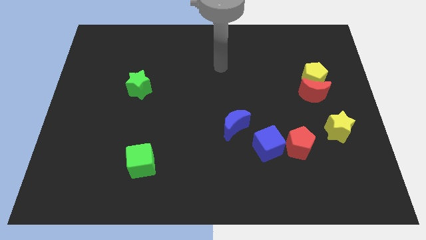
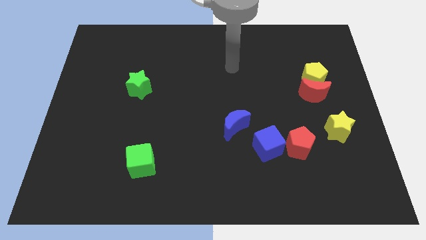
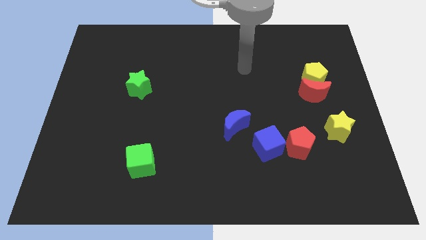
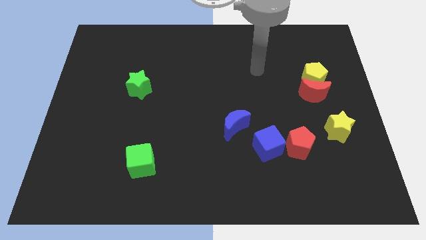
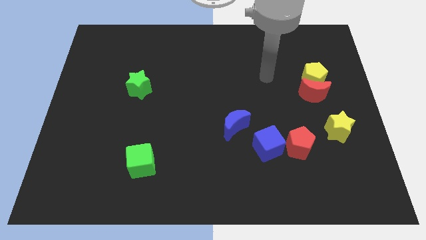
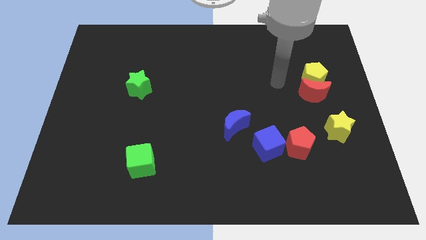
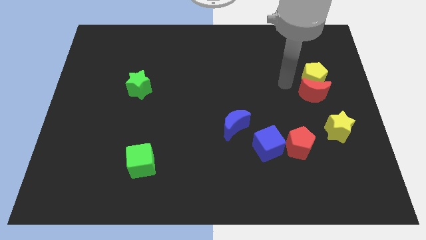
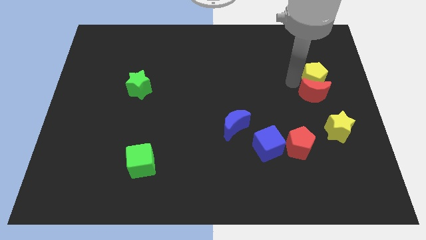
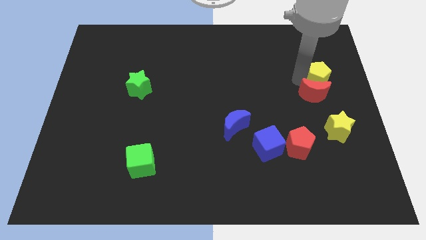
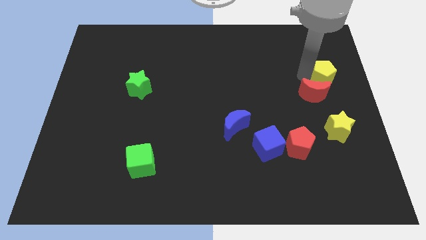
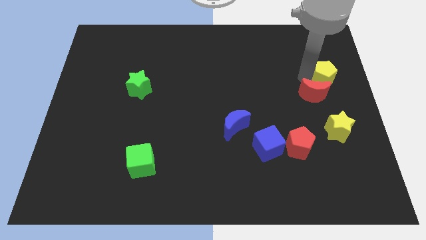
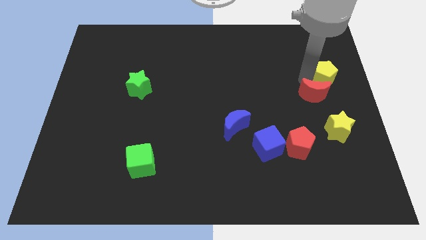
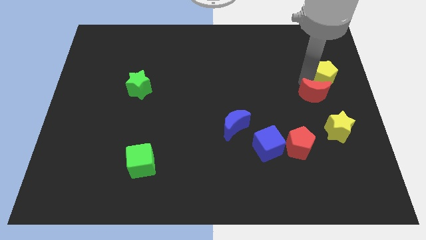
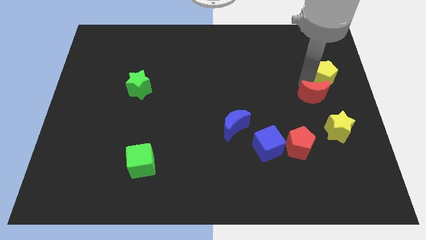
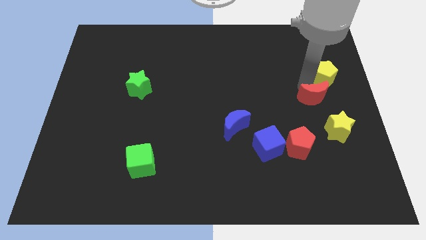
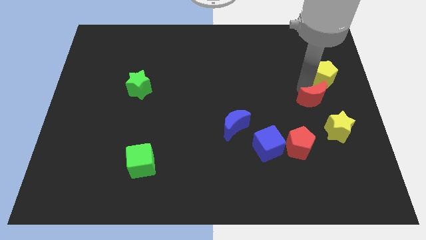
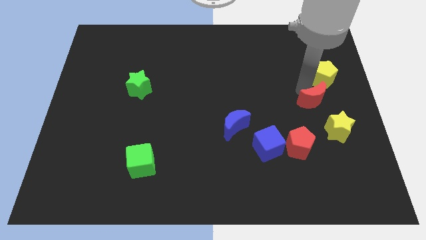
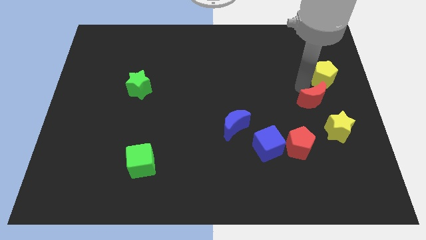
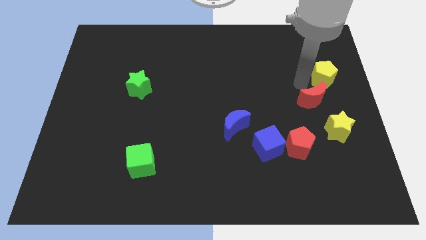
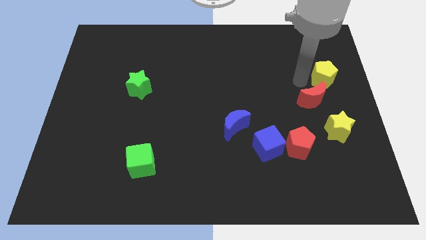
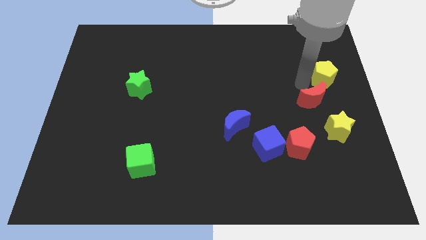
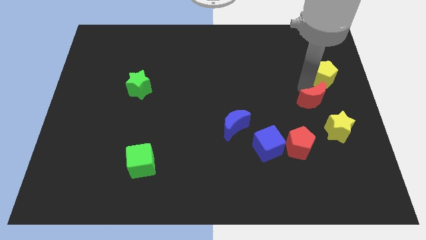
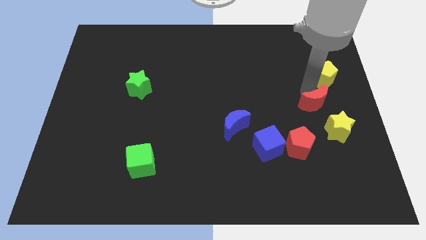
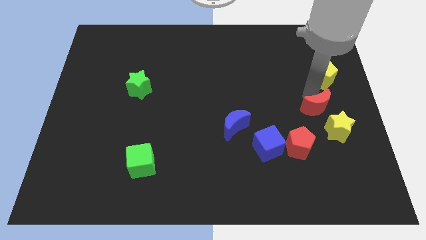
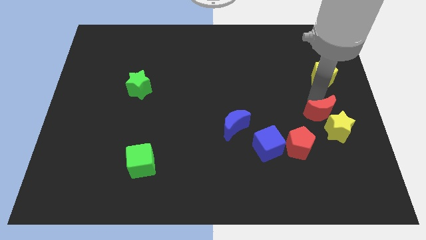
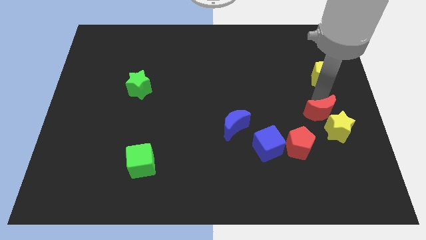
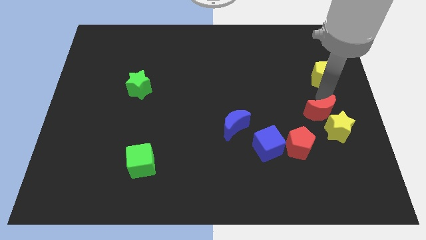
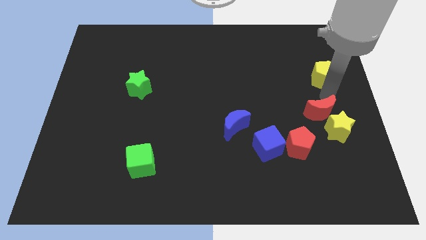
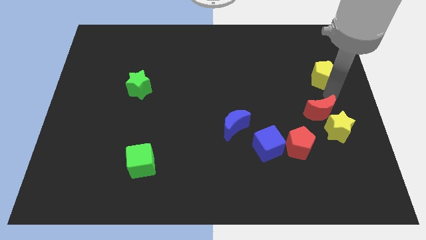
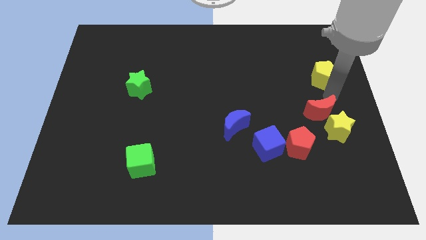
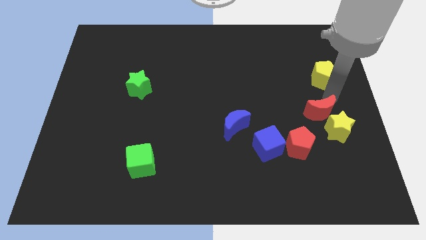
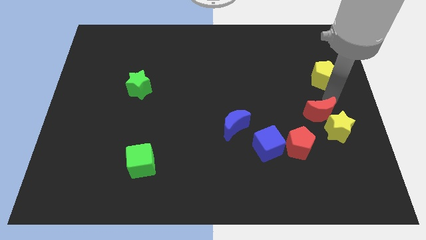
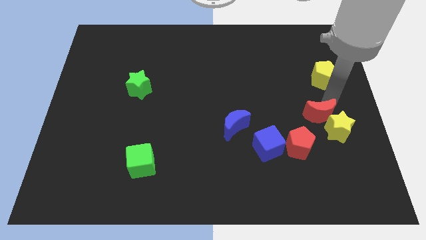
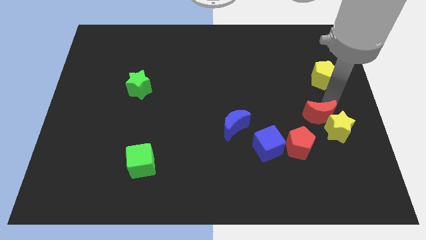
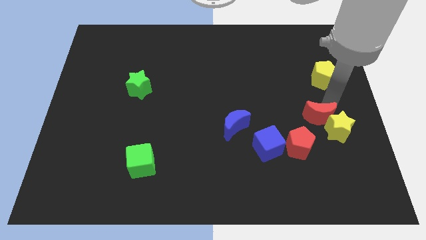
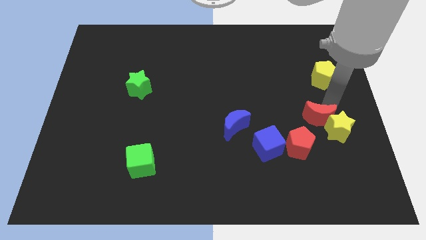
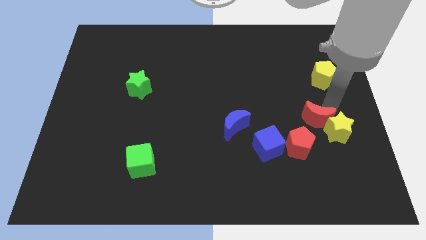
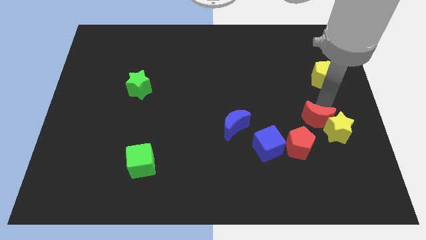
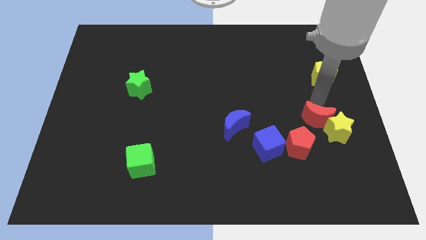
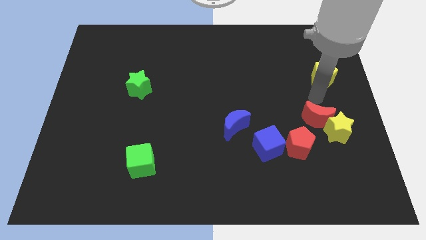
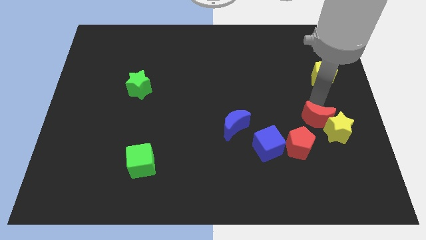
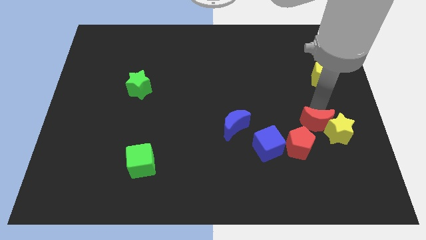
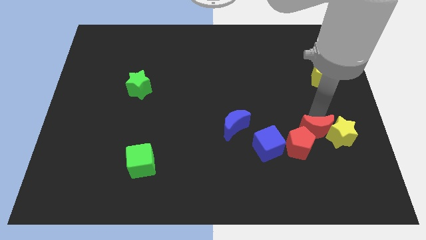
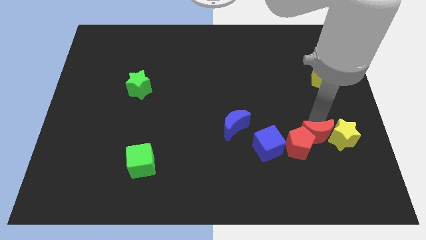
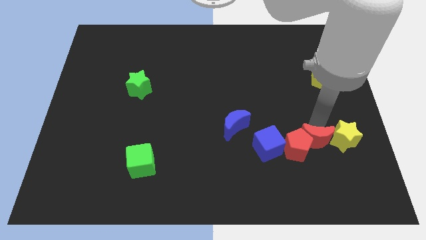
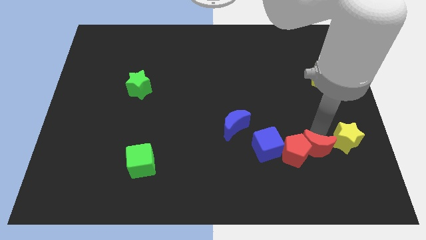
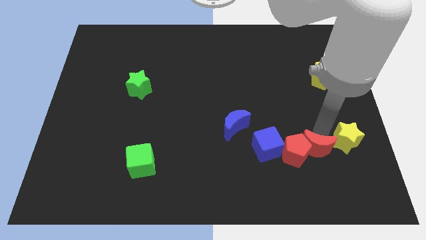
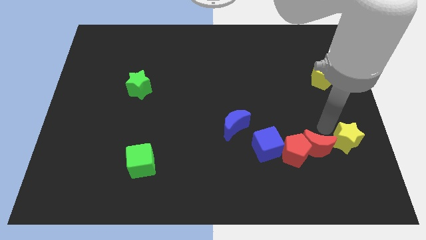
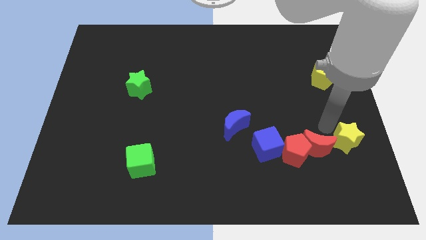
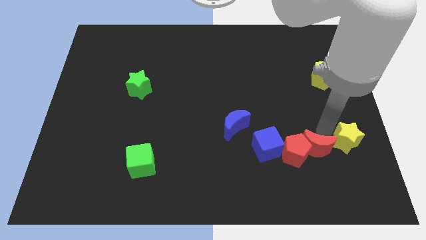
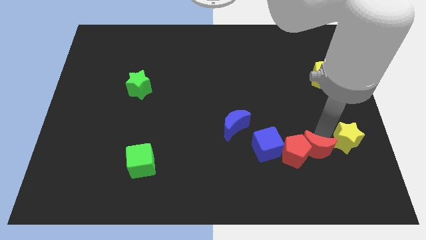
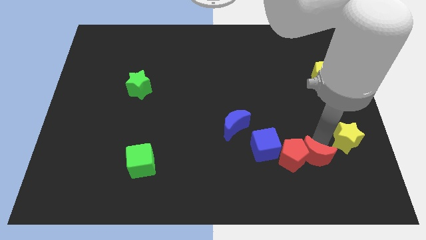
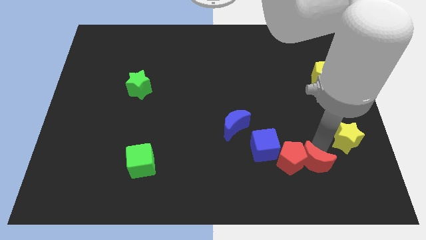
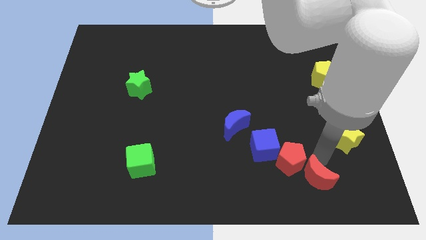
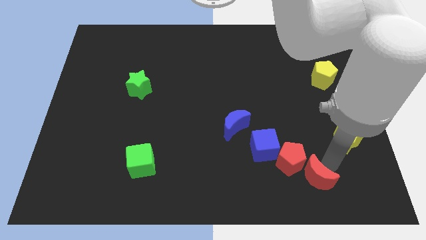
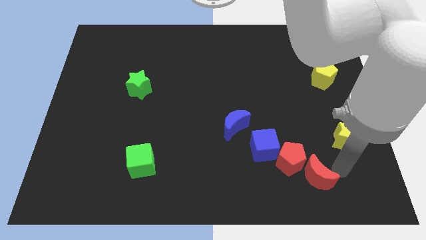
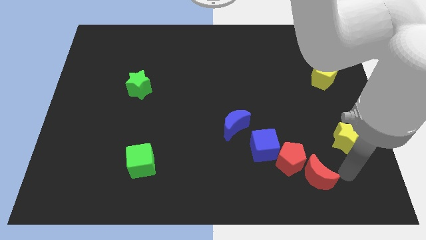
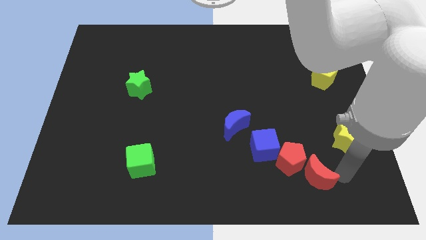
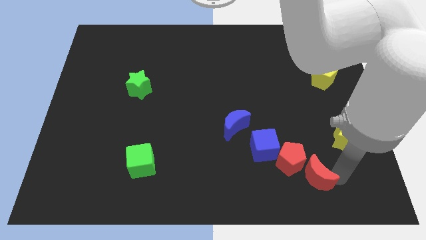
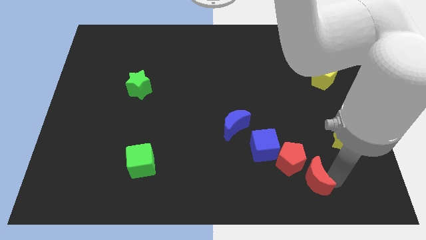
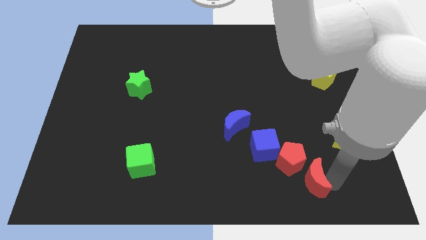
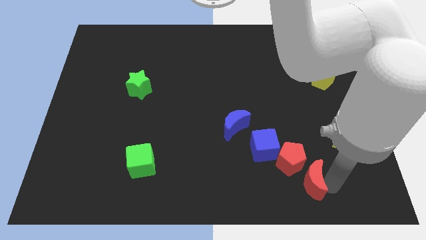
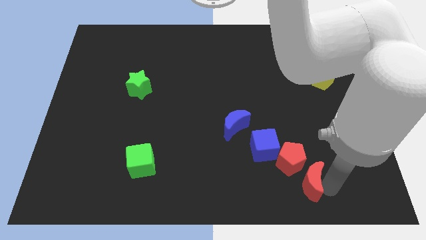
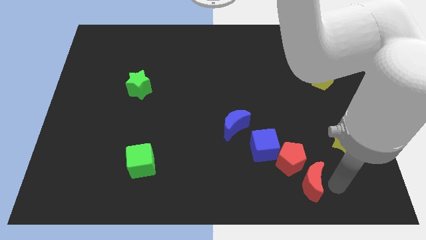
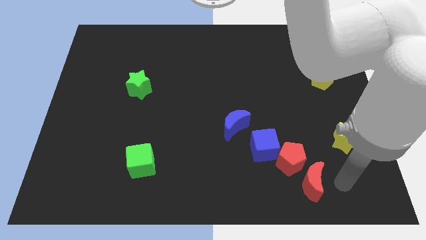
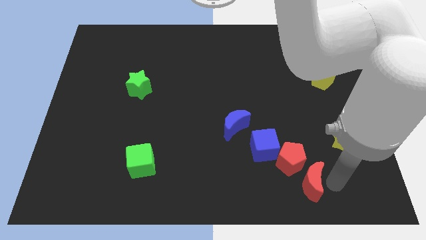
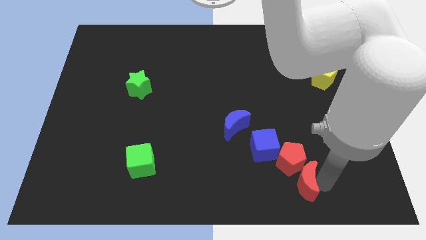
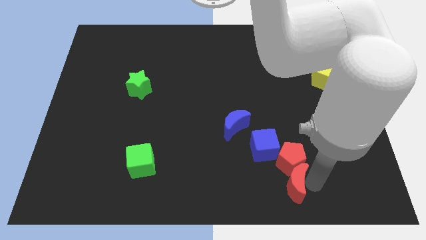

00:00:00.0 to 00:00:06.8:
put the red moon to the bottom left of the red pentagon
